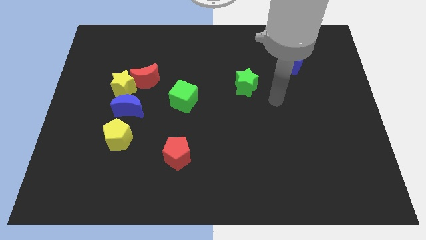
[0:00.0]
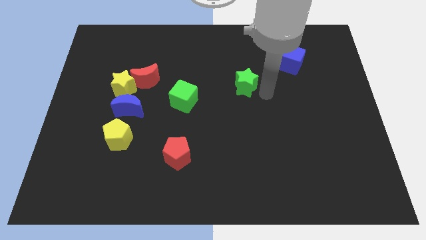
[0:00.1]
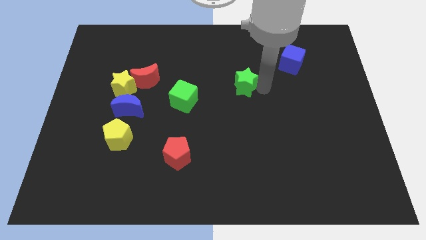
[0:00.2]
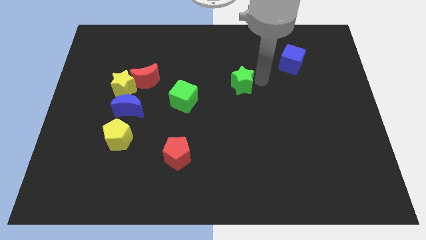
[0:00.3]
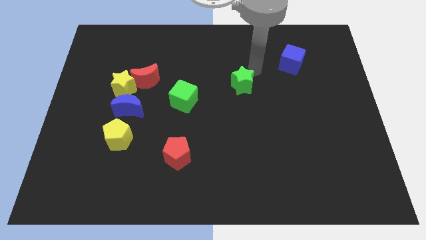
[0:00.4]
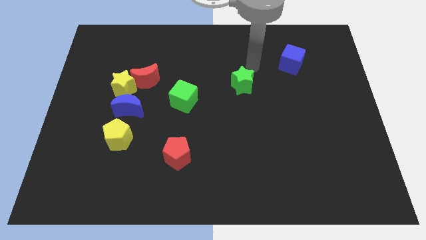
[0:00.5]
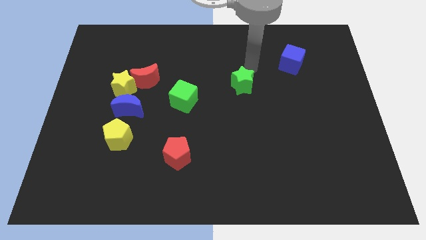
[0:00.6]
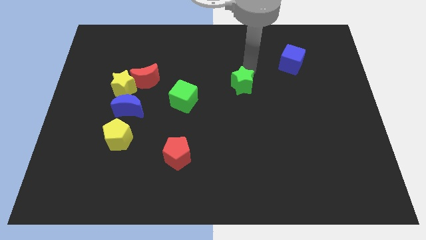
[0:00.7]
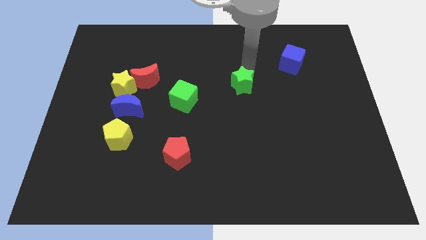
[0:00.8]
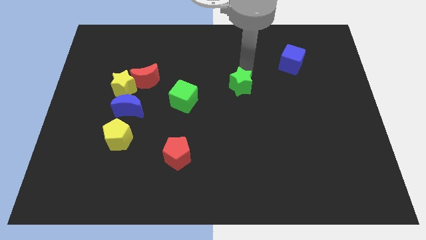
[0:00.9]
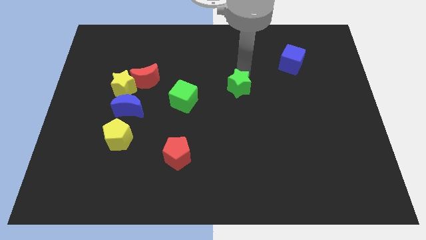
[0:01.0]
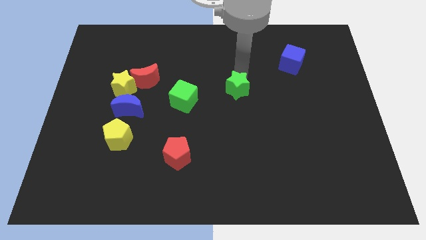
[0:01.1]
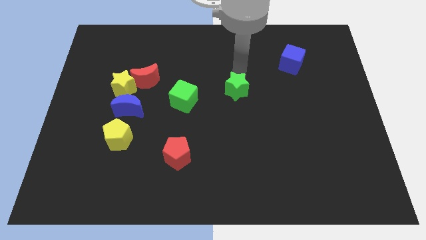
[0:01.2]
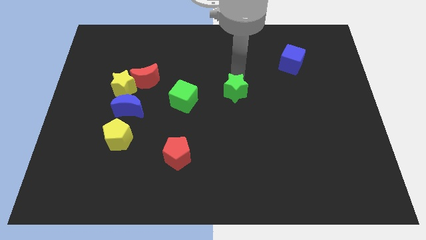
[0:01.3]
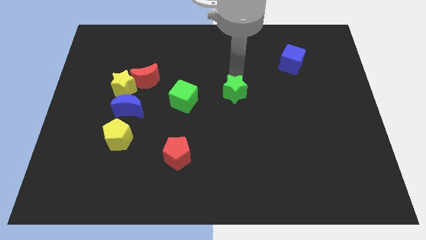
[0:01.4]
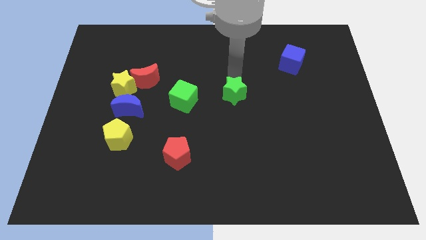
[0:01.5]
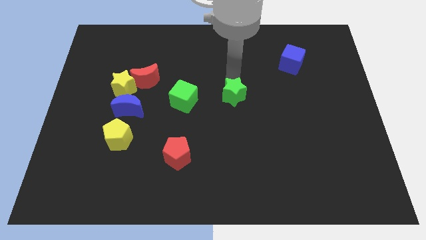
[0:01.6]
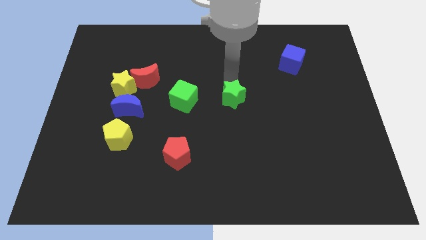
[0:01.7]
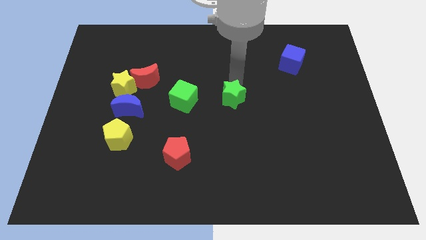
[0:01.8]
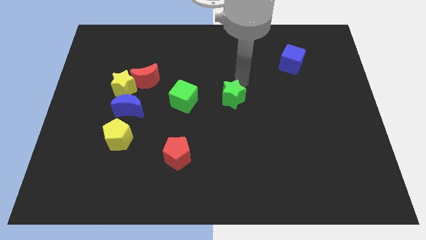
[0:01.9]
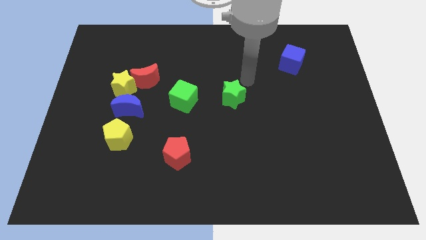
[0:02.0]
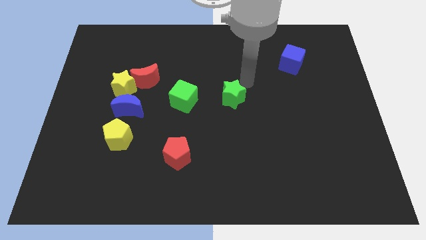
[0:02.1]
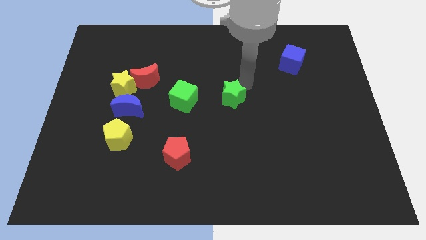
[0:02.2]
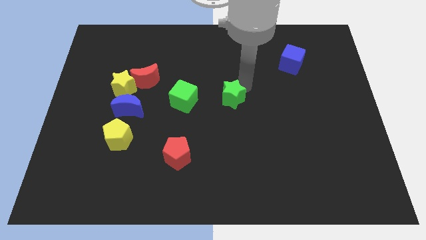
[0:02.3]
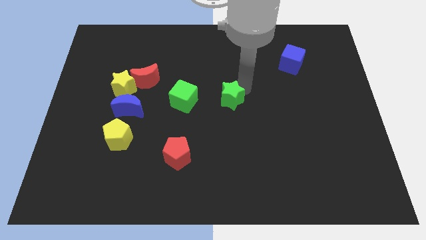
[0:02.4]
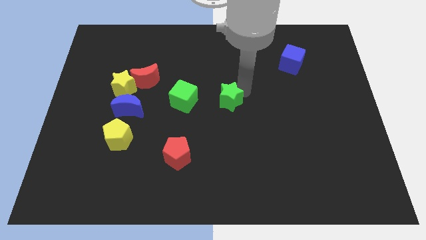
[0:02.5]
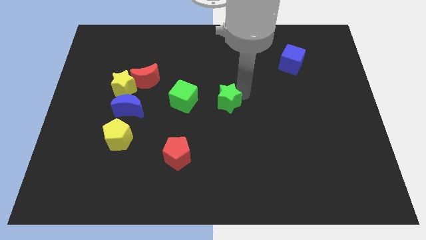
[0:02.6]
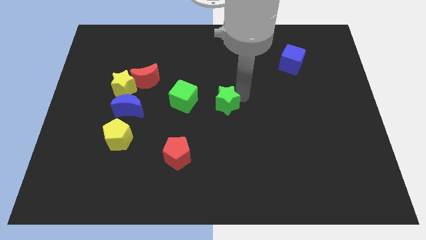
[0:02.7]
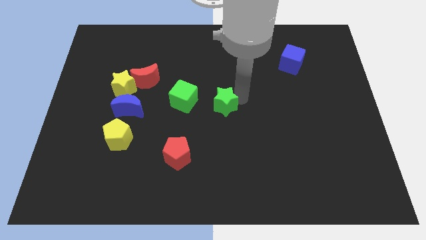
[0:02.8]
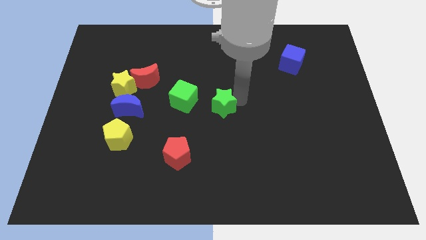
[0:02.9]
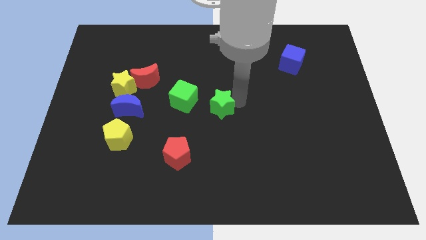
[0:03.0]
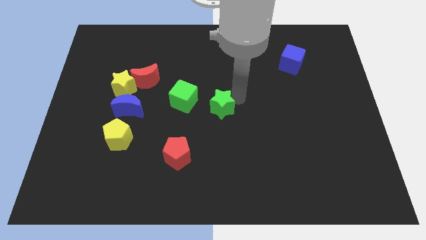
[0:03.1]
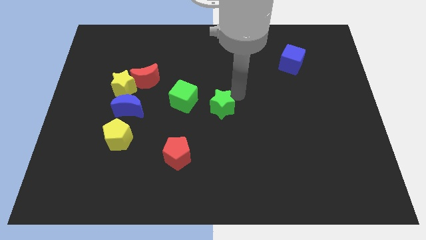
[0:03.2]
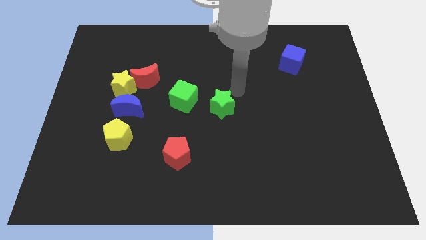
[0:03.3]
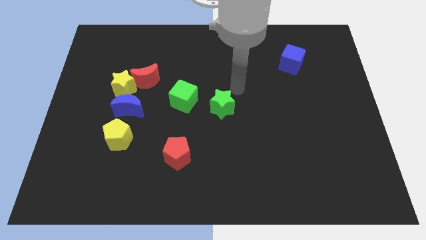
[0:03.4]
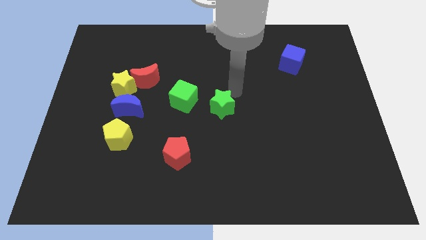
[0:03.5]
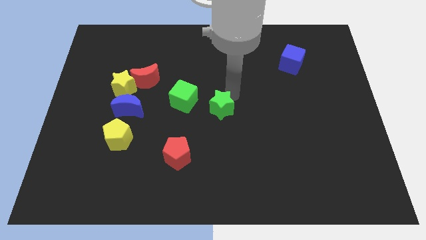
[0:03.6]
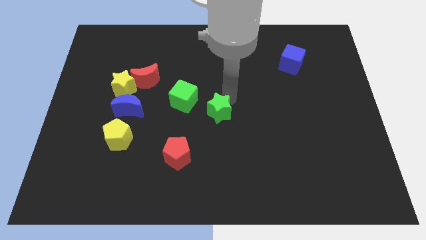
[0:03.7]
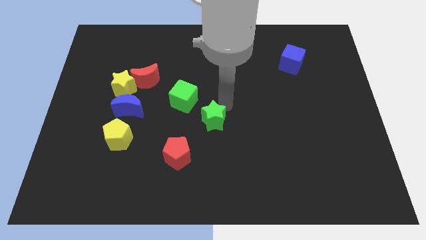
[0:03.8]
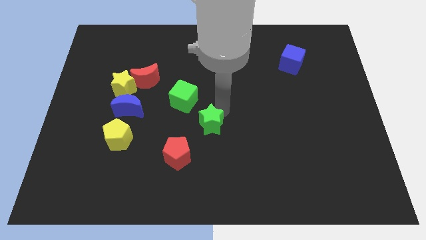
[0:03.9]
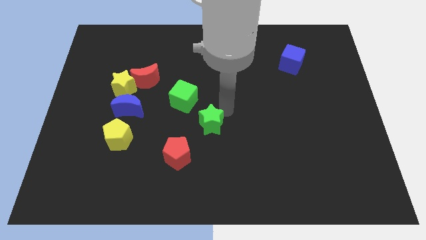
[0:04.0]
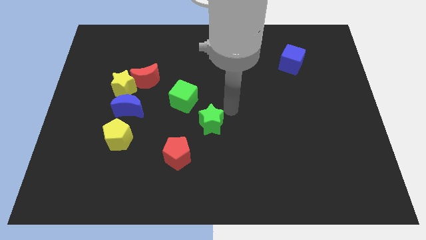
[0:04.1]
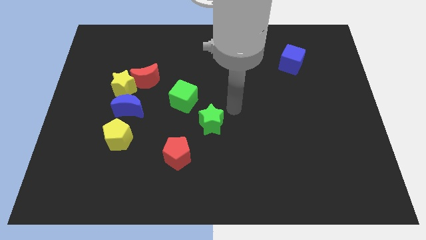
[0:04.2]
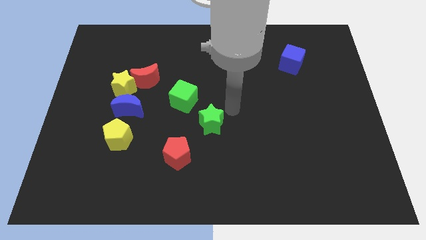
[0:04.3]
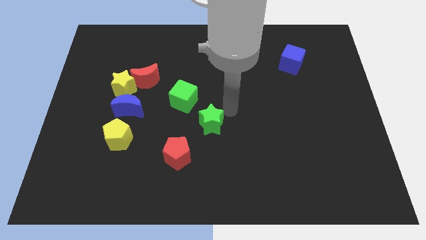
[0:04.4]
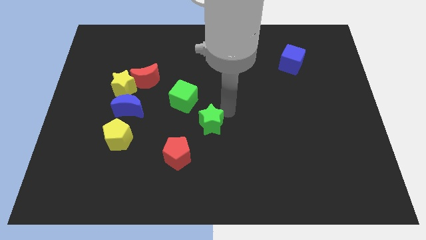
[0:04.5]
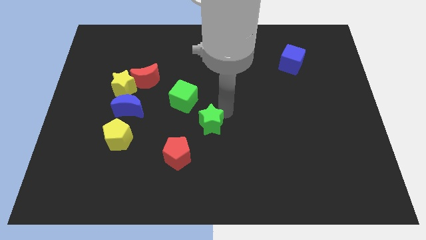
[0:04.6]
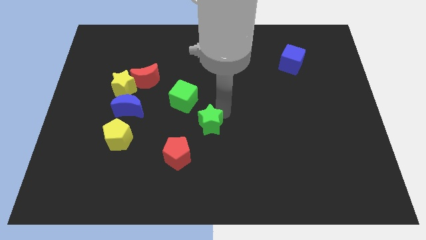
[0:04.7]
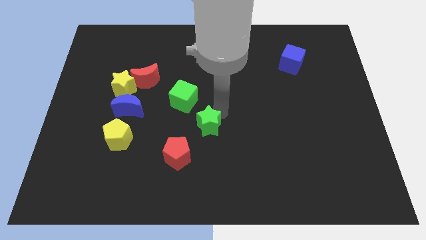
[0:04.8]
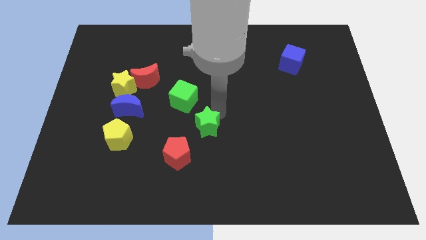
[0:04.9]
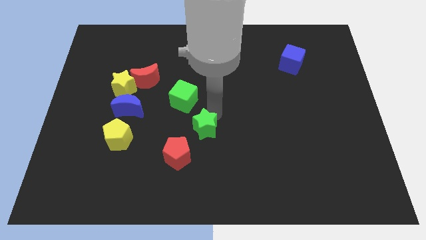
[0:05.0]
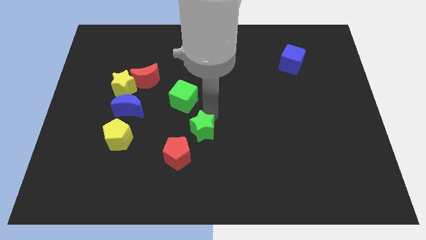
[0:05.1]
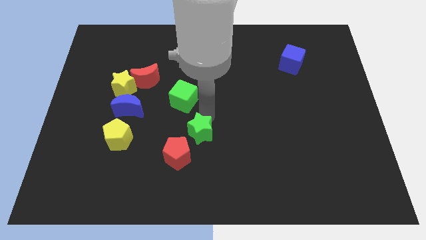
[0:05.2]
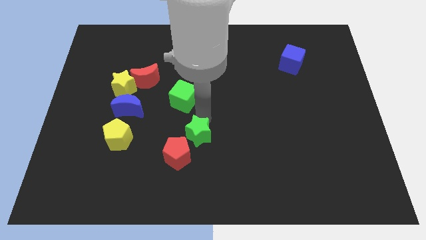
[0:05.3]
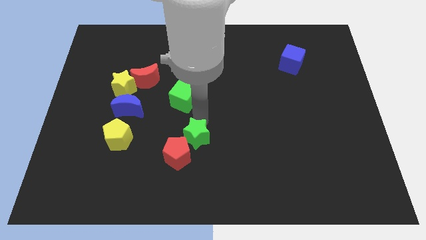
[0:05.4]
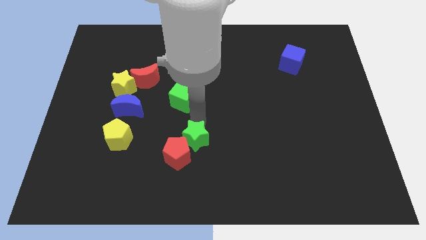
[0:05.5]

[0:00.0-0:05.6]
move the green star close to the red pentagon

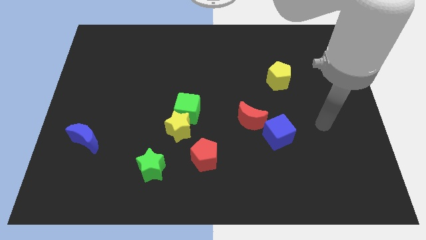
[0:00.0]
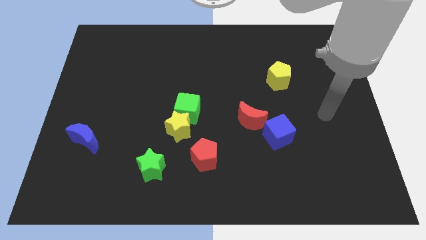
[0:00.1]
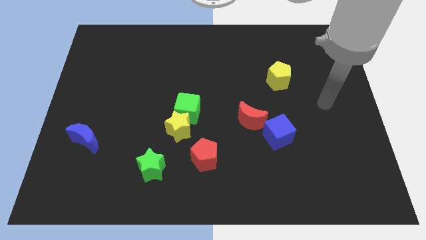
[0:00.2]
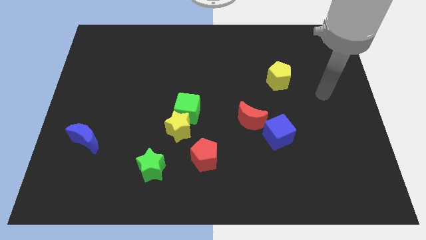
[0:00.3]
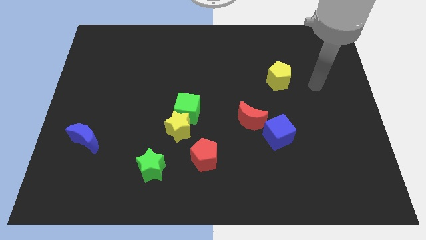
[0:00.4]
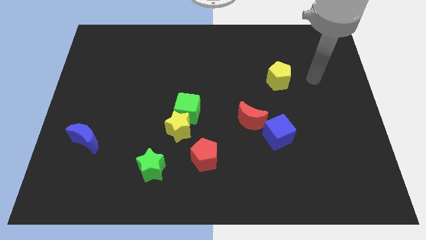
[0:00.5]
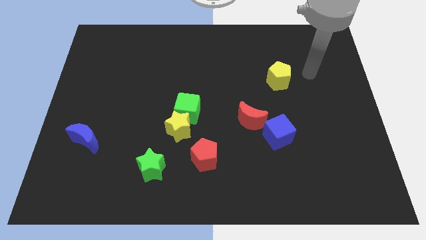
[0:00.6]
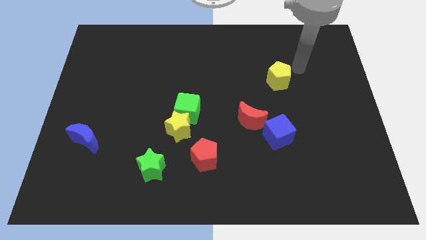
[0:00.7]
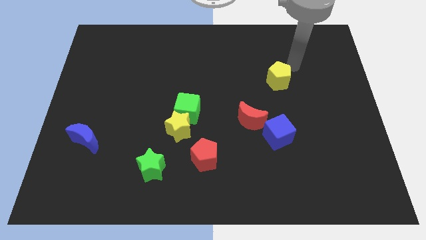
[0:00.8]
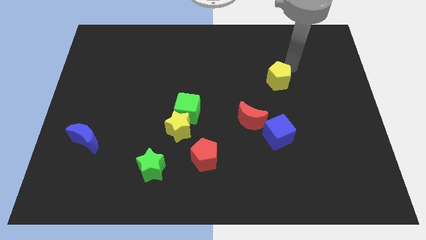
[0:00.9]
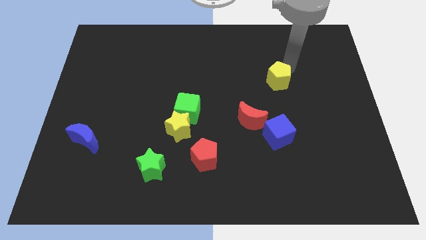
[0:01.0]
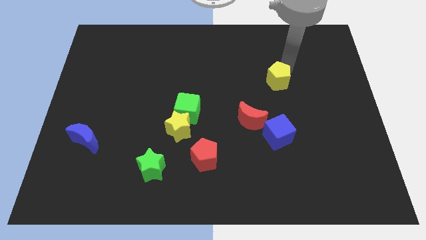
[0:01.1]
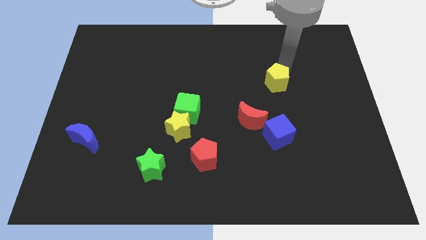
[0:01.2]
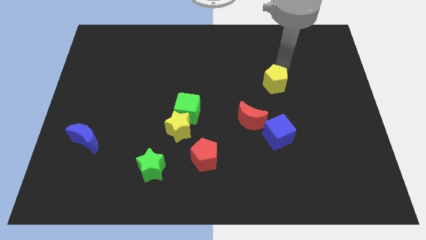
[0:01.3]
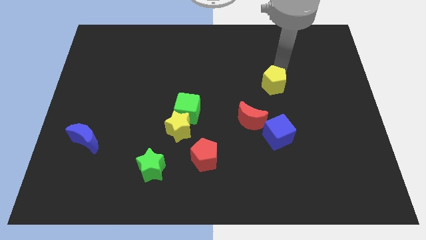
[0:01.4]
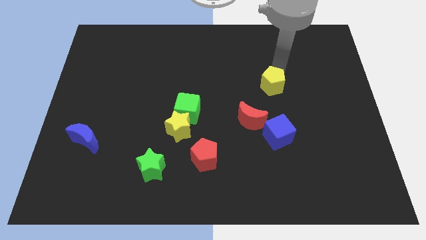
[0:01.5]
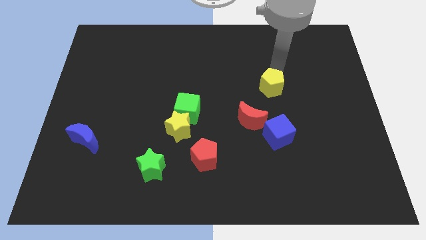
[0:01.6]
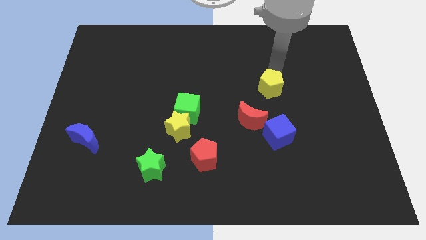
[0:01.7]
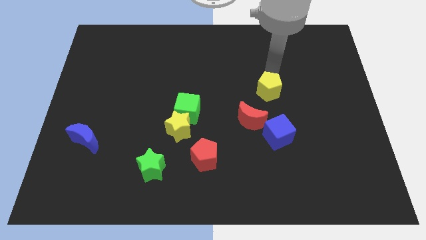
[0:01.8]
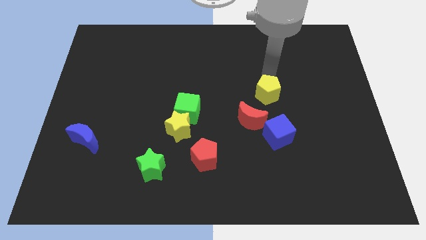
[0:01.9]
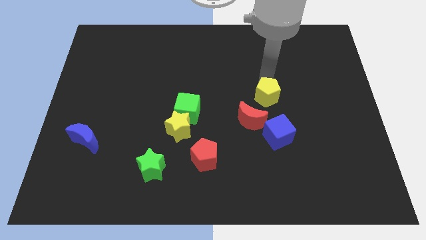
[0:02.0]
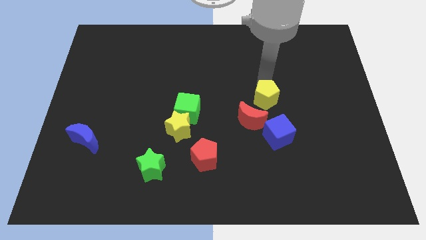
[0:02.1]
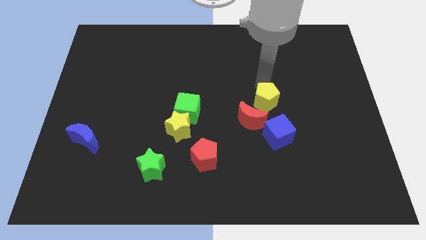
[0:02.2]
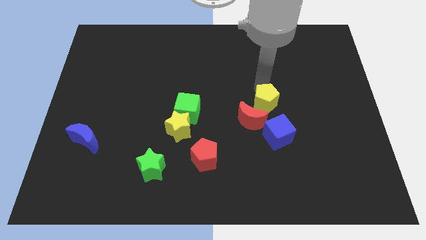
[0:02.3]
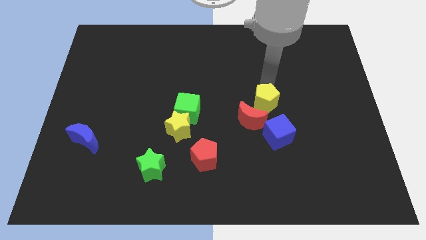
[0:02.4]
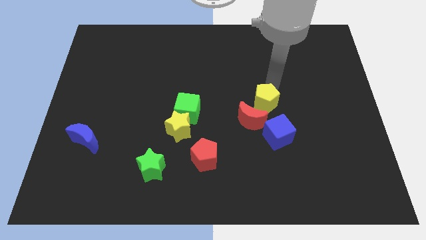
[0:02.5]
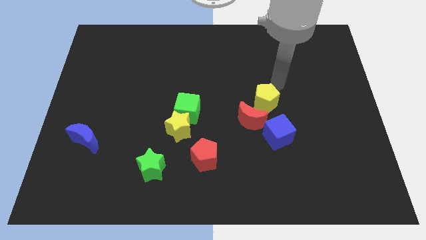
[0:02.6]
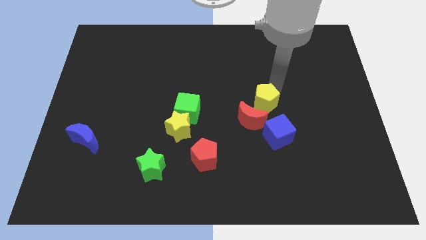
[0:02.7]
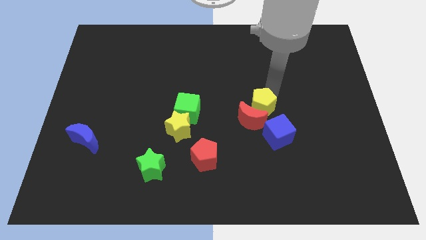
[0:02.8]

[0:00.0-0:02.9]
push the yellow pentagon to the red moon
